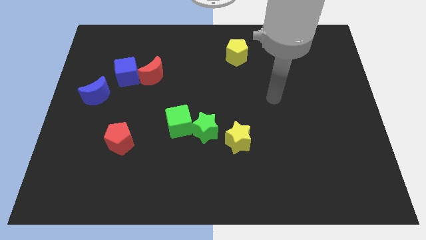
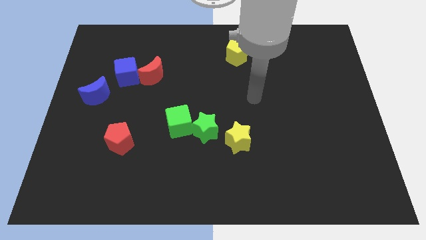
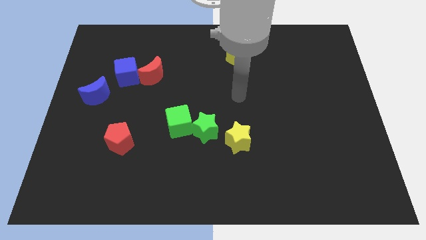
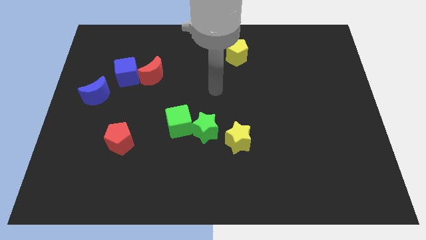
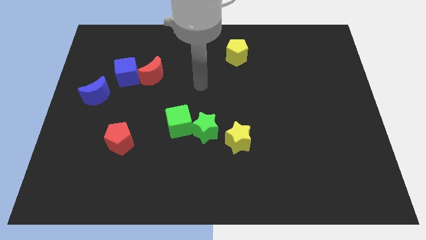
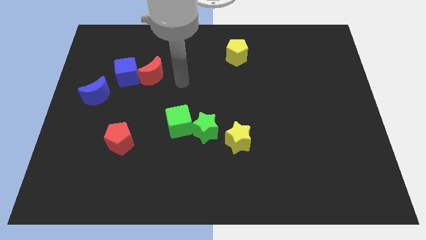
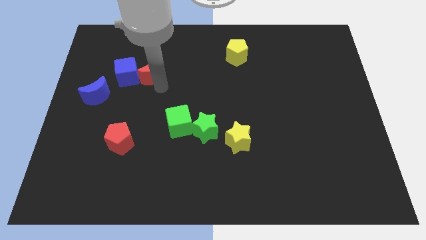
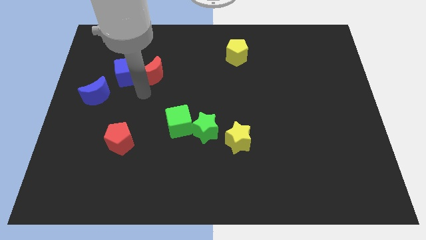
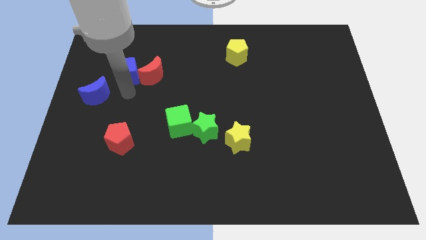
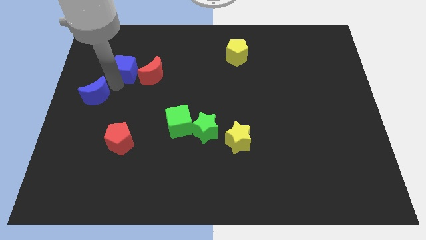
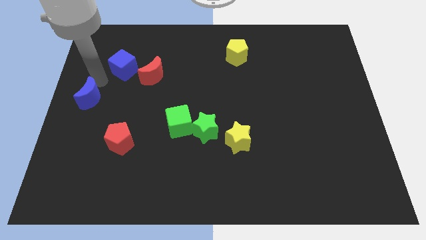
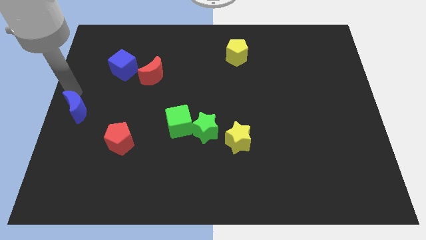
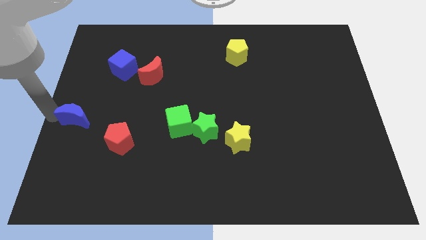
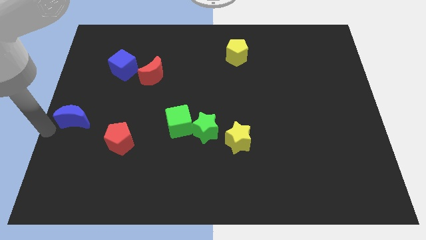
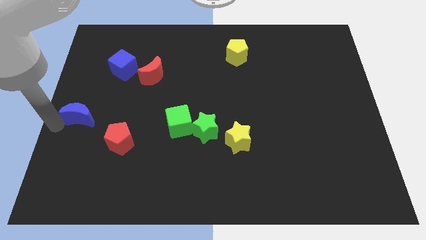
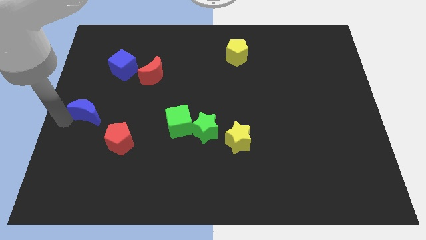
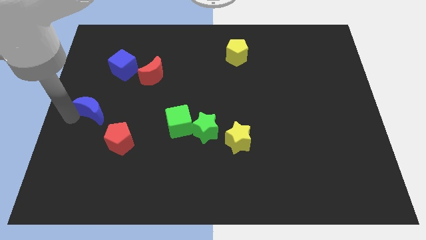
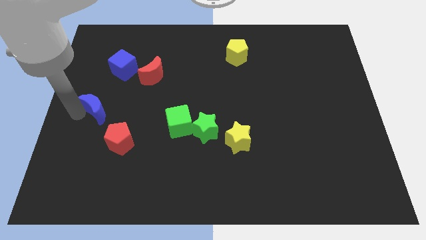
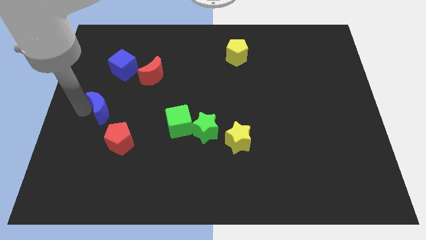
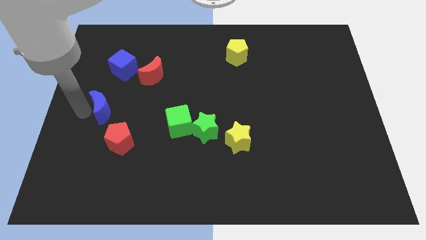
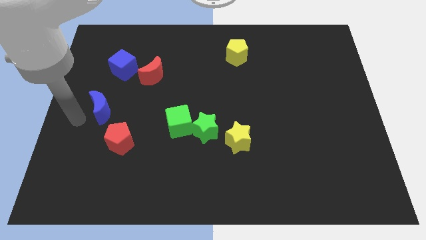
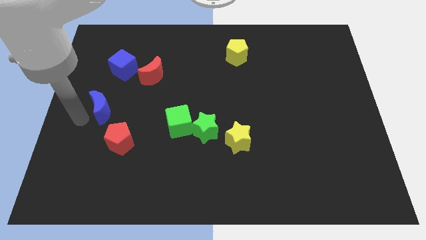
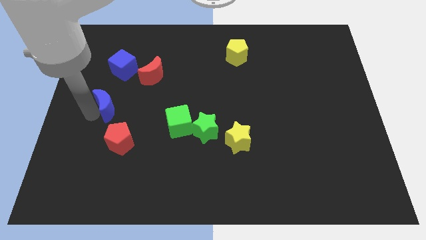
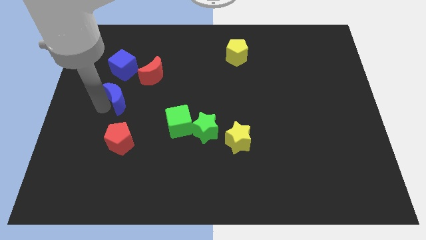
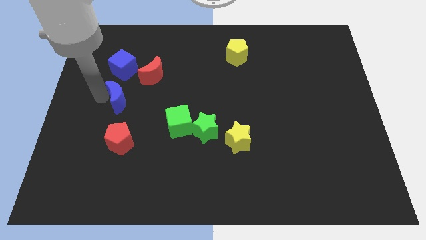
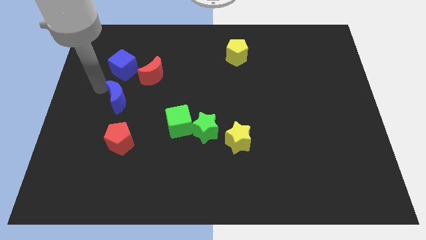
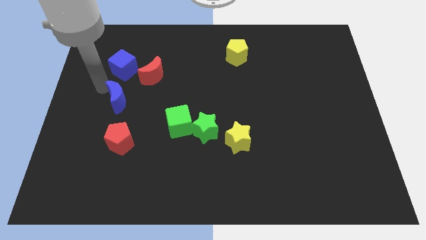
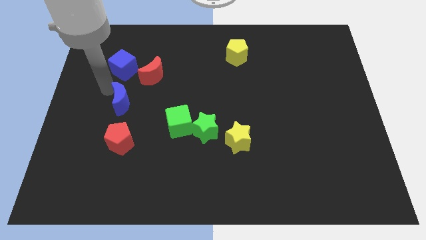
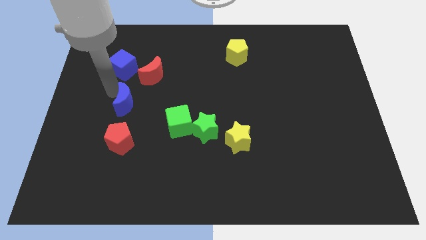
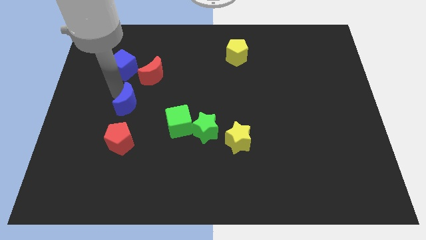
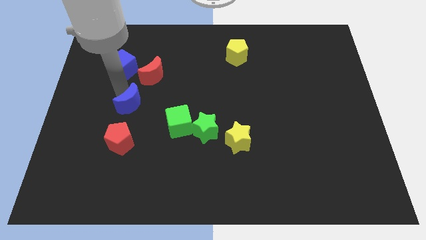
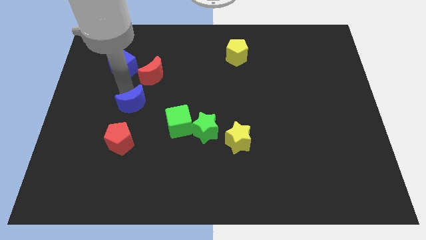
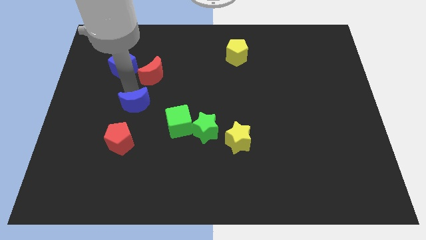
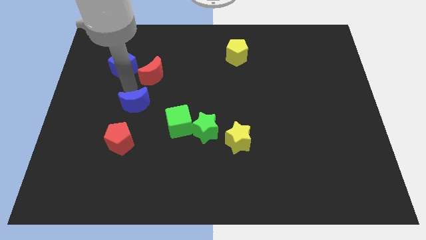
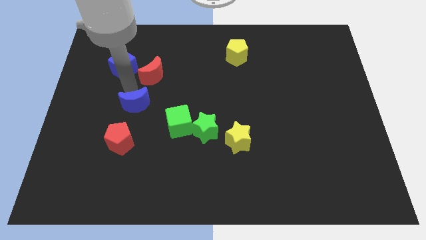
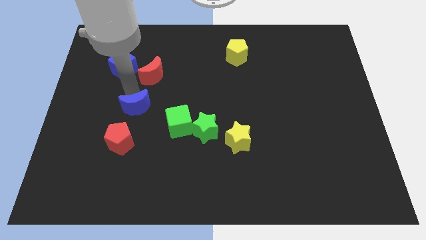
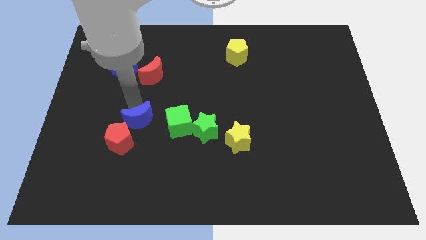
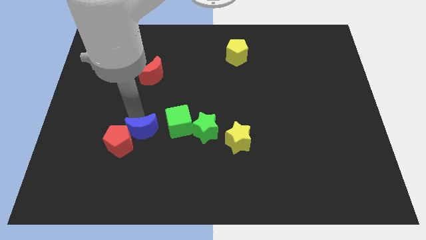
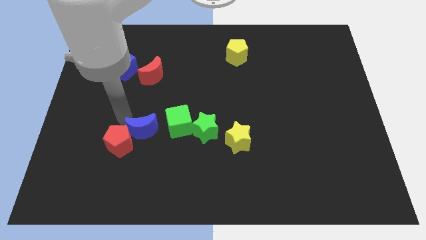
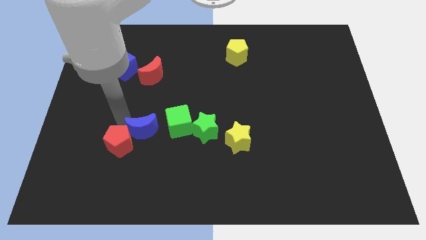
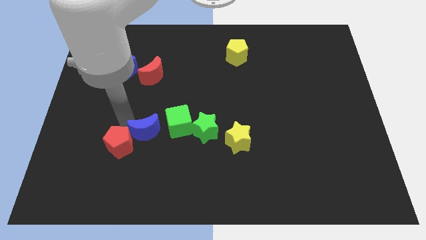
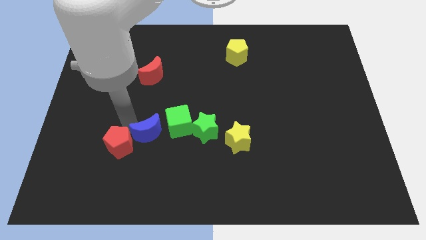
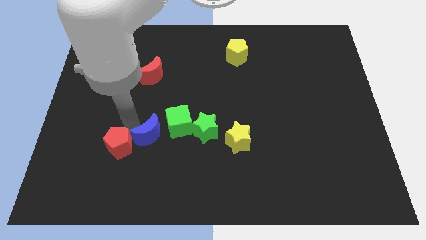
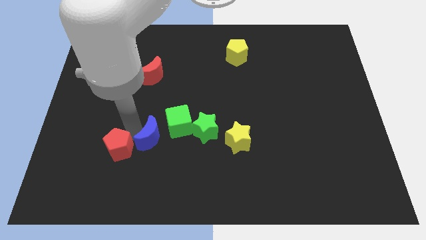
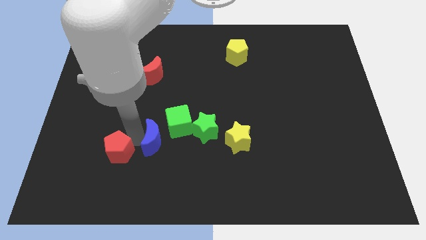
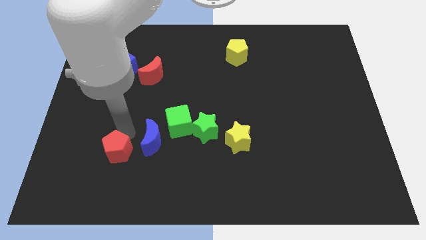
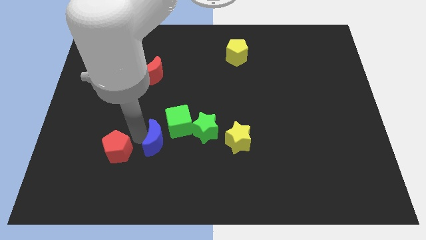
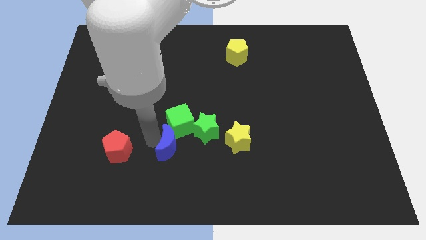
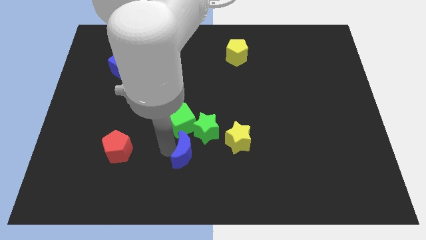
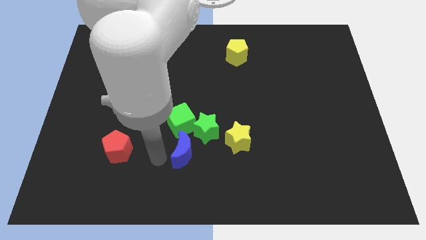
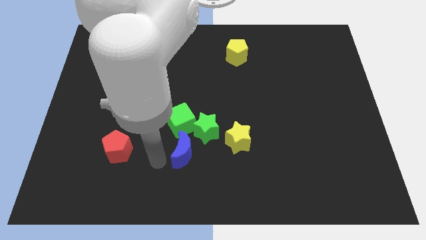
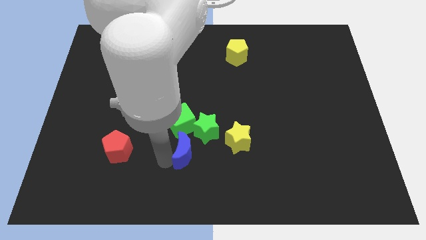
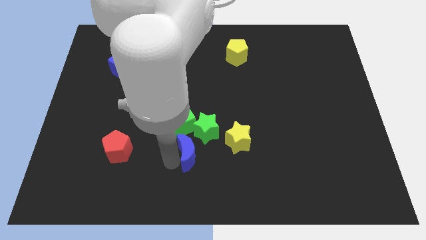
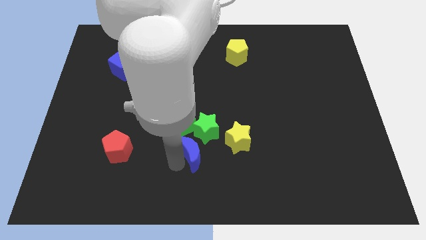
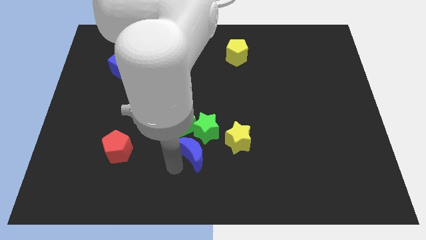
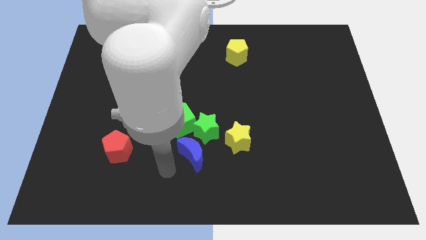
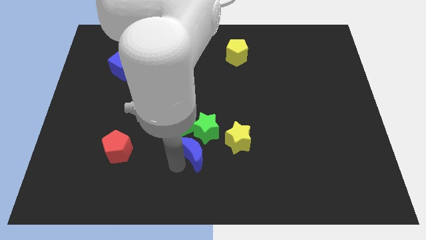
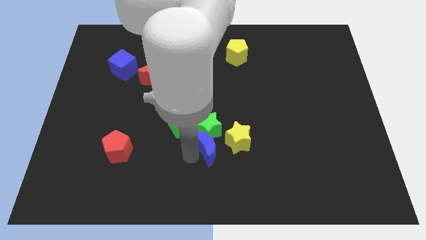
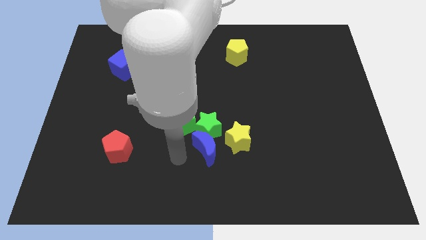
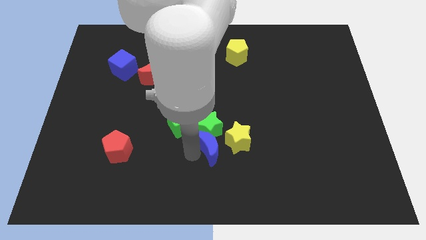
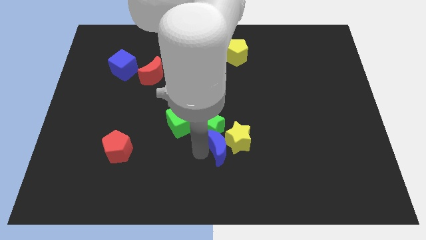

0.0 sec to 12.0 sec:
put the blue moon close to the yellow star

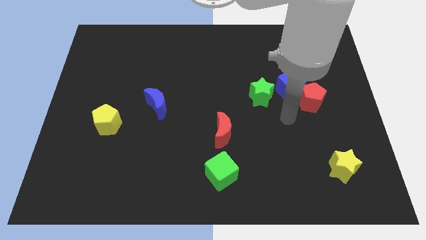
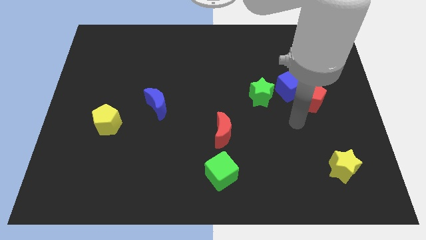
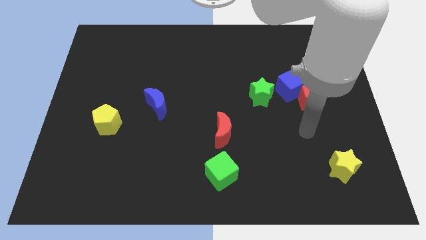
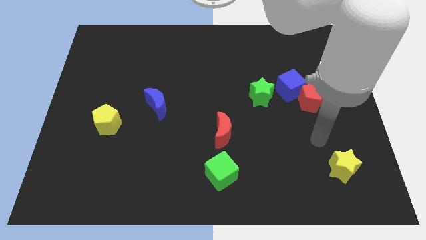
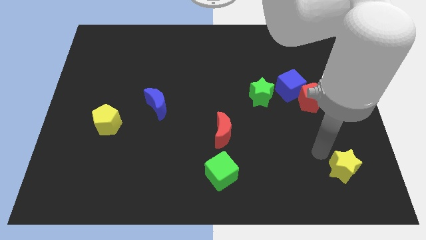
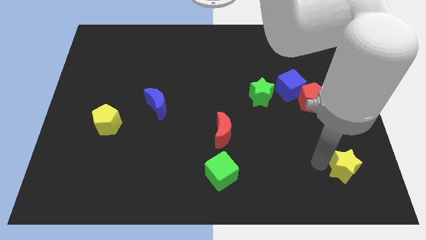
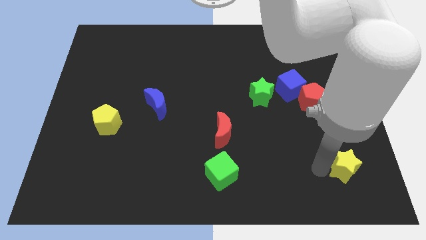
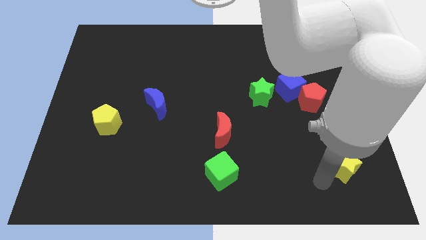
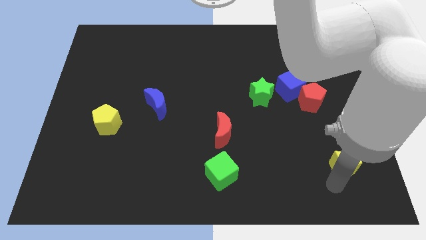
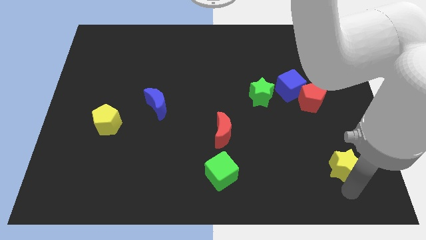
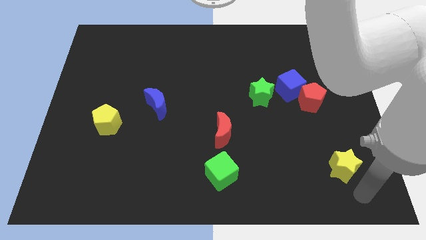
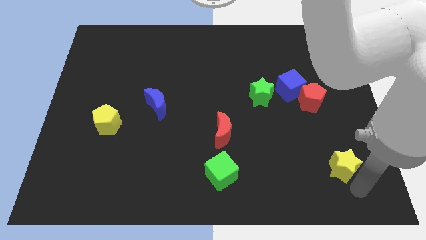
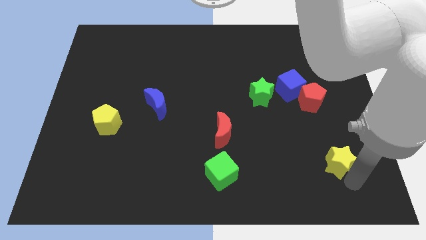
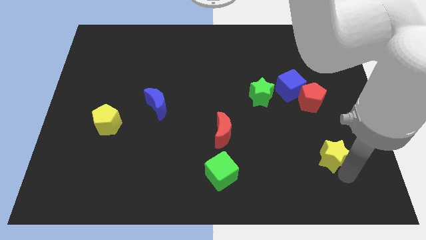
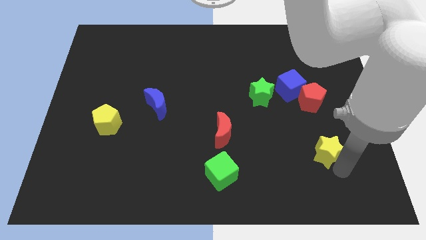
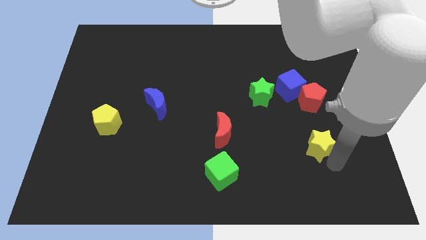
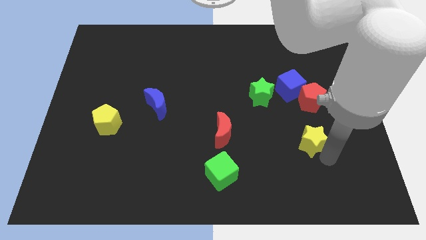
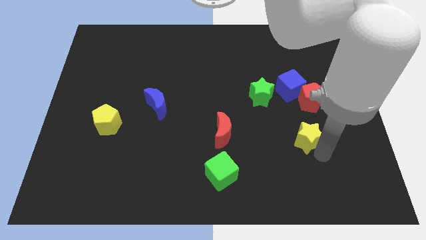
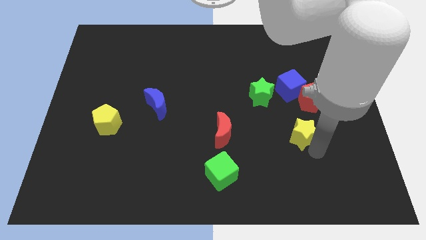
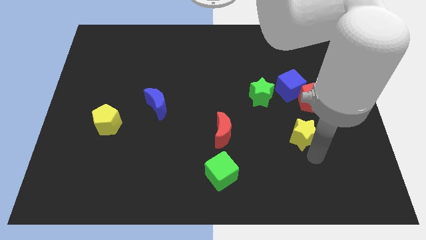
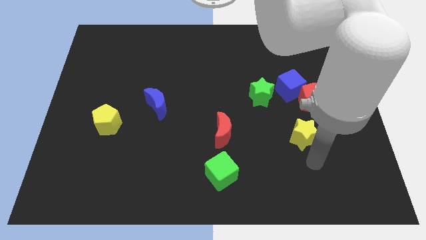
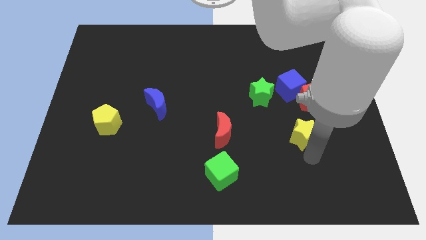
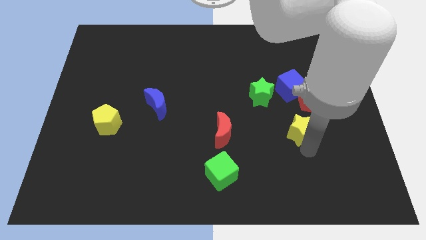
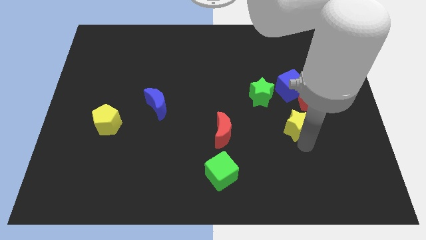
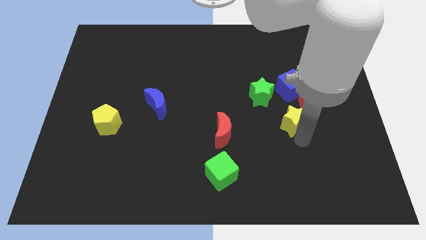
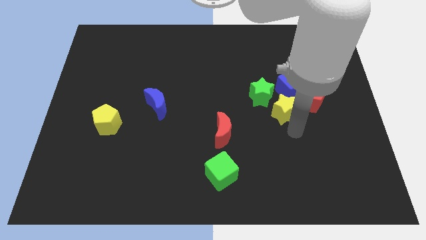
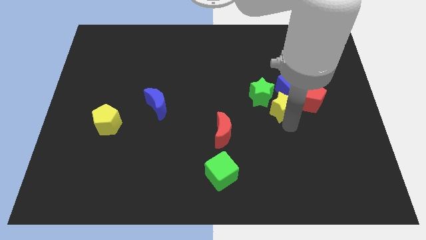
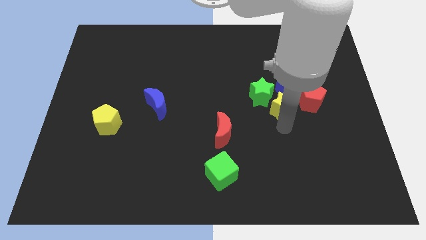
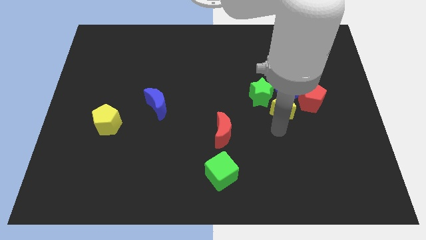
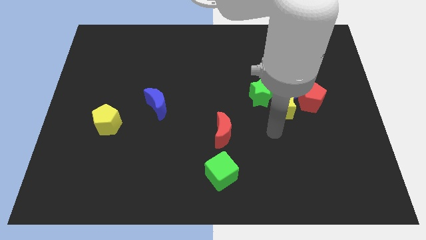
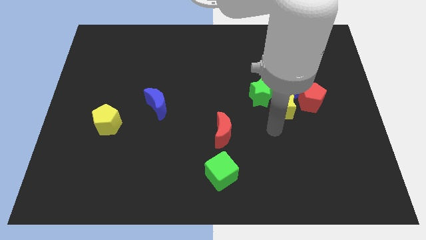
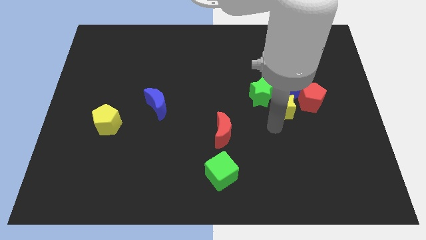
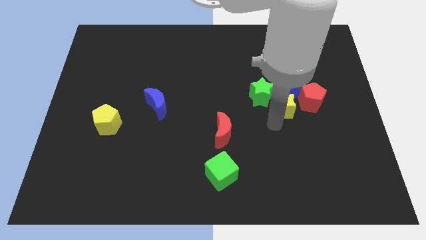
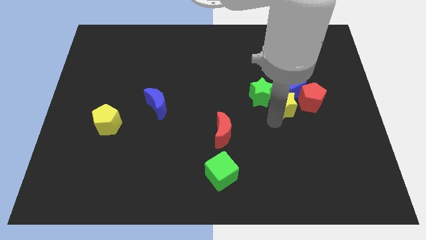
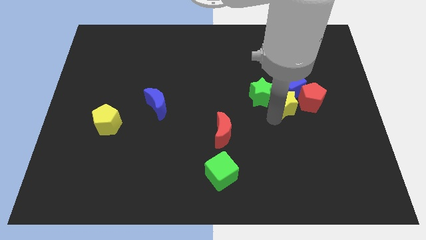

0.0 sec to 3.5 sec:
push the yellow star towards the blue cube
